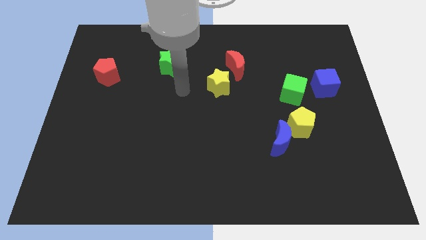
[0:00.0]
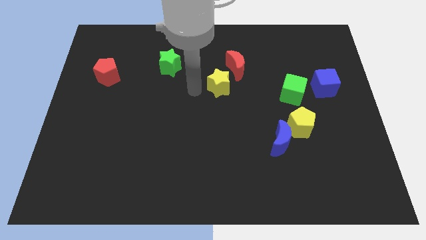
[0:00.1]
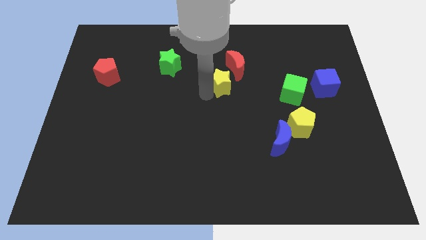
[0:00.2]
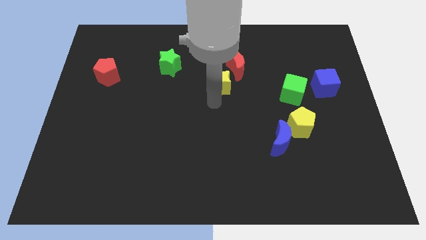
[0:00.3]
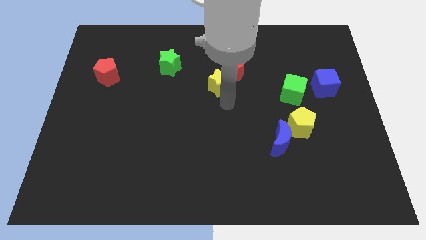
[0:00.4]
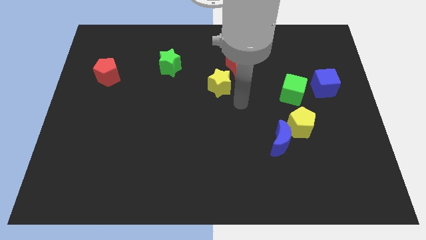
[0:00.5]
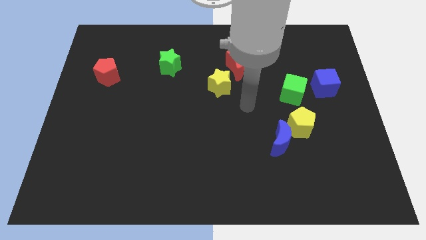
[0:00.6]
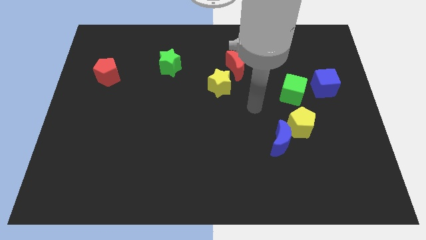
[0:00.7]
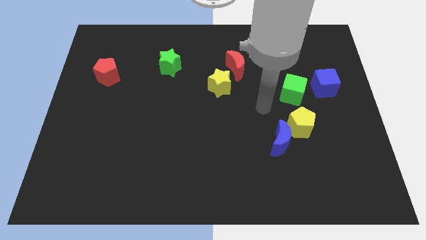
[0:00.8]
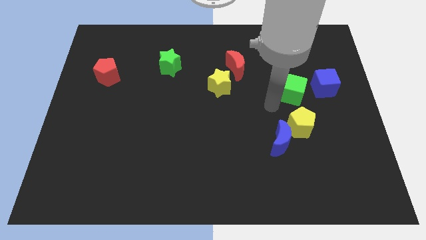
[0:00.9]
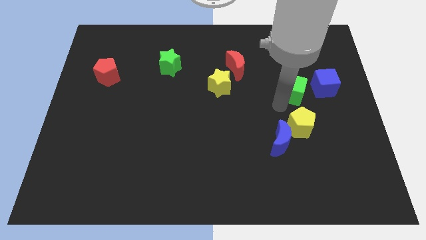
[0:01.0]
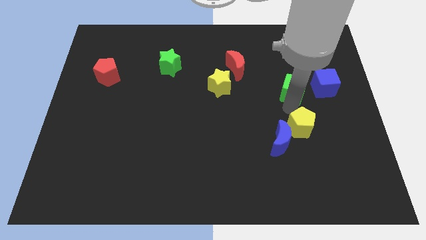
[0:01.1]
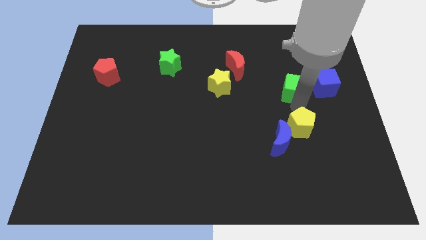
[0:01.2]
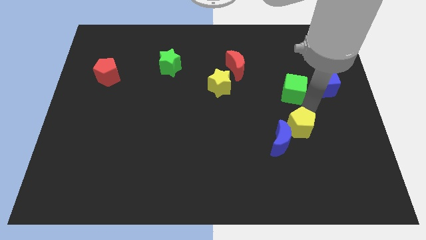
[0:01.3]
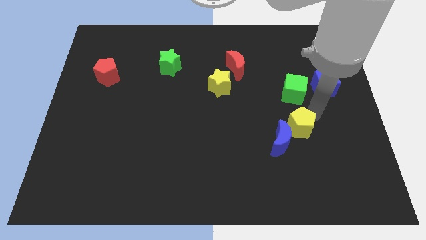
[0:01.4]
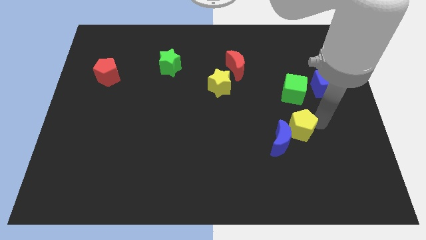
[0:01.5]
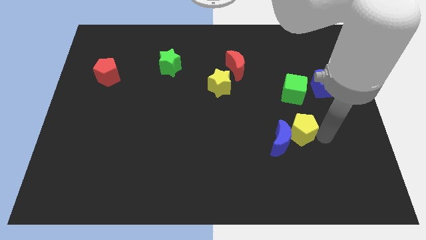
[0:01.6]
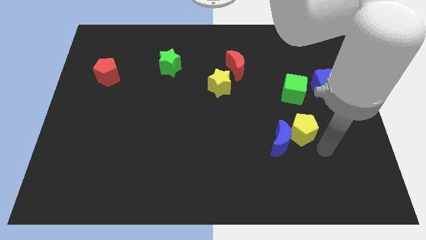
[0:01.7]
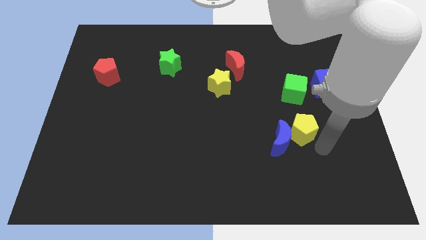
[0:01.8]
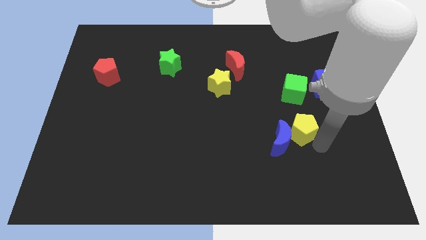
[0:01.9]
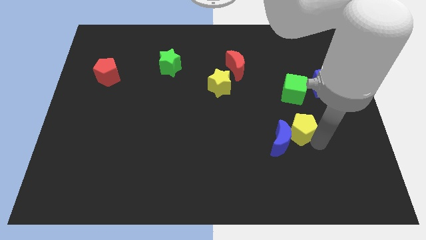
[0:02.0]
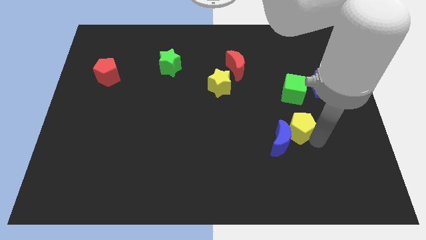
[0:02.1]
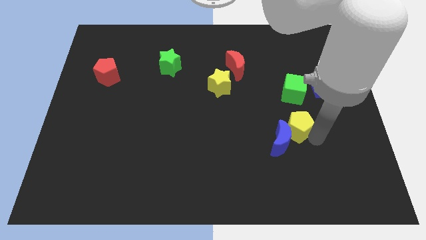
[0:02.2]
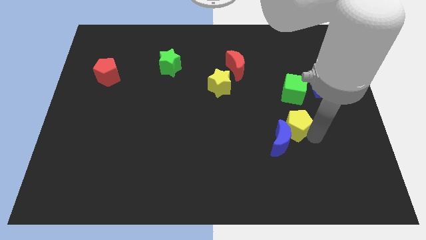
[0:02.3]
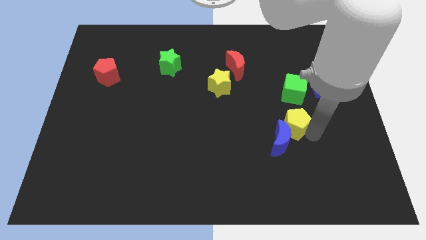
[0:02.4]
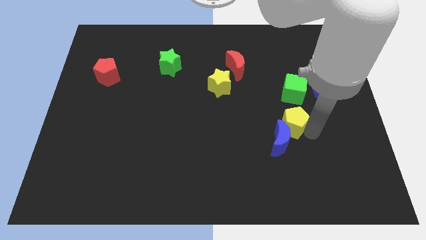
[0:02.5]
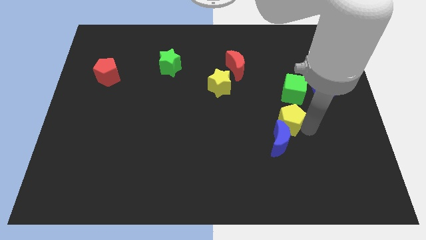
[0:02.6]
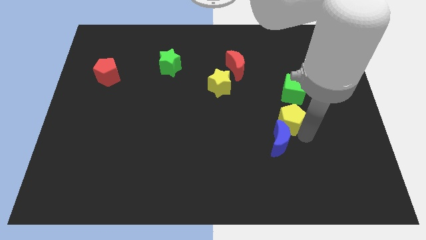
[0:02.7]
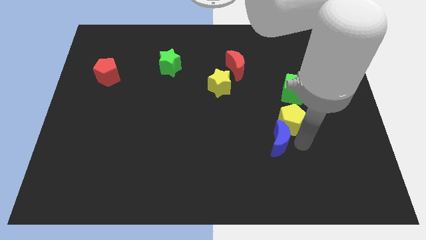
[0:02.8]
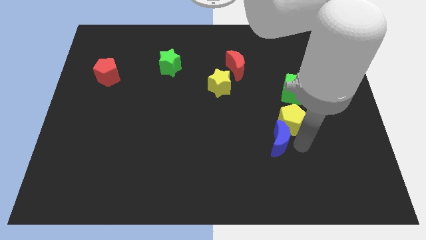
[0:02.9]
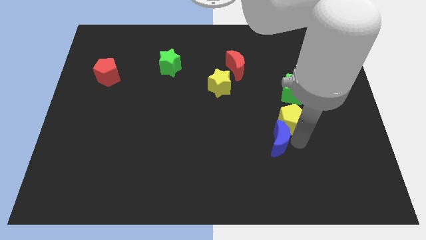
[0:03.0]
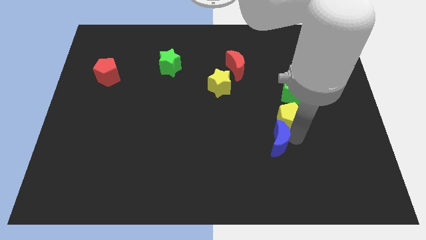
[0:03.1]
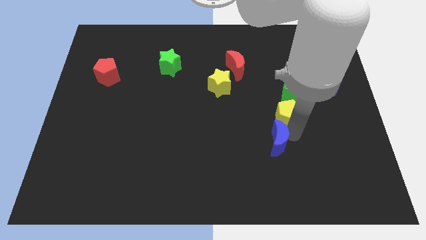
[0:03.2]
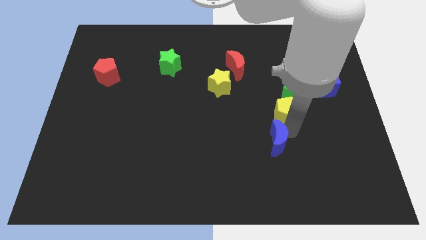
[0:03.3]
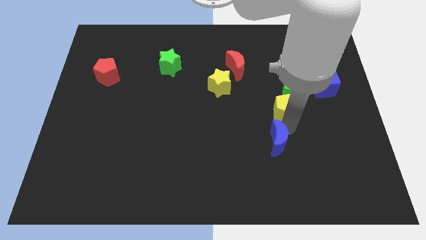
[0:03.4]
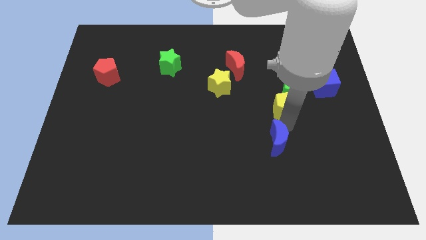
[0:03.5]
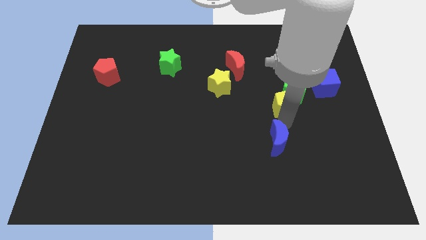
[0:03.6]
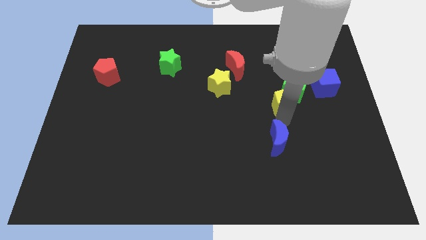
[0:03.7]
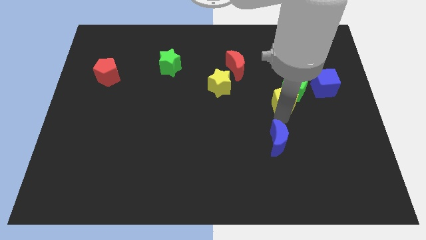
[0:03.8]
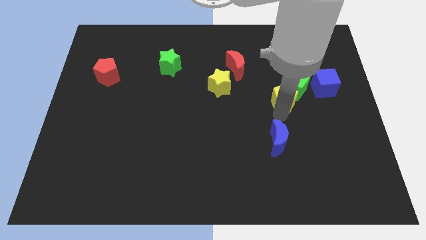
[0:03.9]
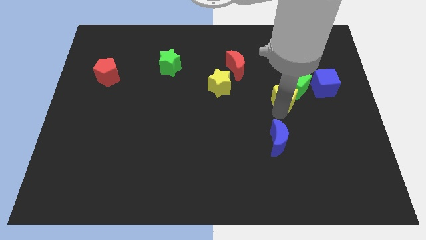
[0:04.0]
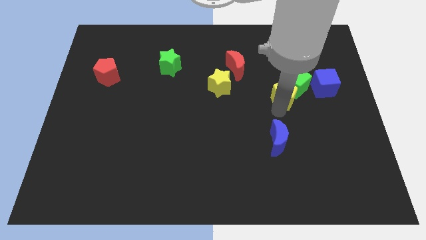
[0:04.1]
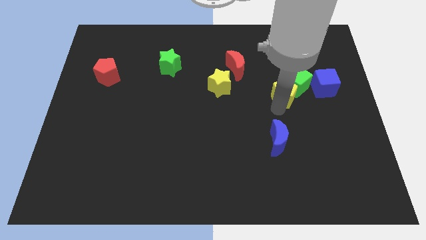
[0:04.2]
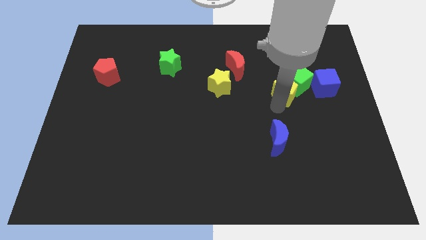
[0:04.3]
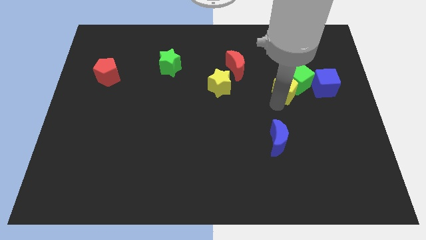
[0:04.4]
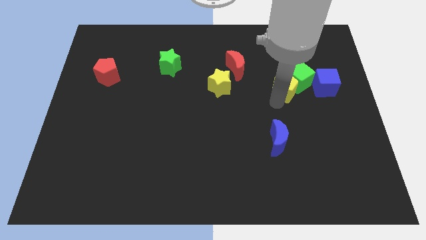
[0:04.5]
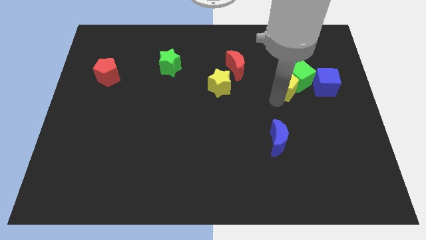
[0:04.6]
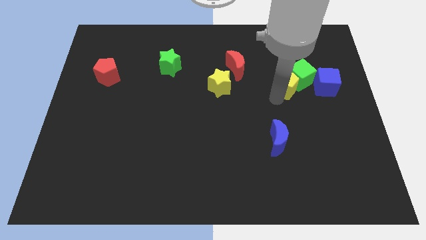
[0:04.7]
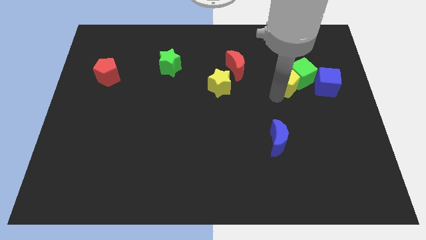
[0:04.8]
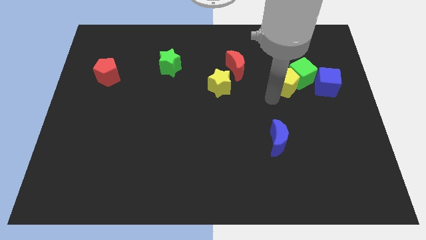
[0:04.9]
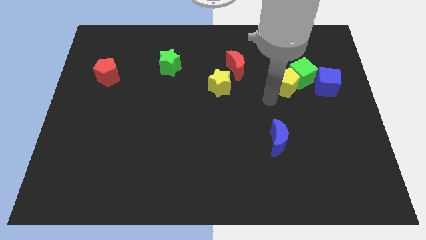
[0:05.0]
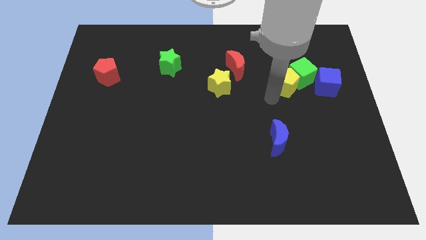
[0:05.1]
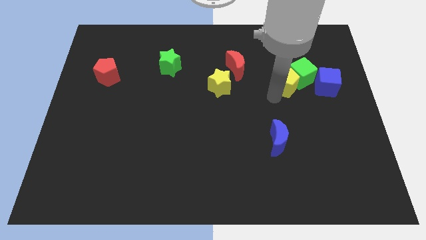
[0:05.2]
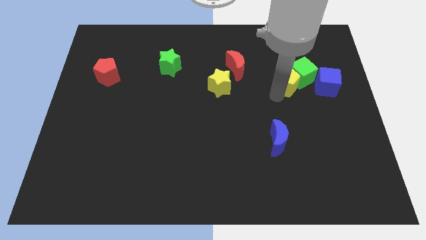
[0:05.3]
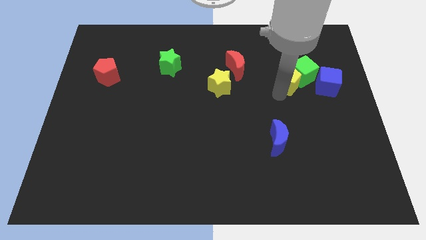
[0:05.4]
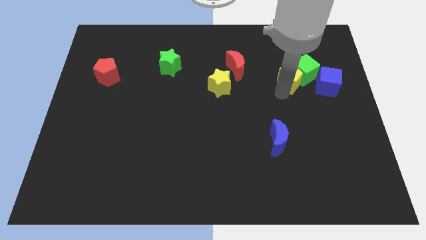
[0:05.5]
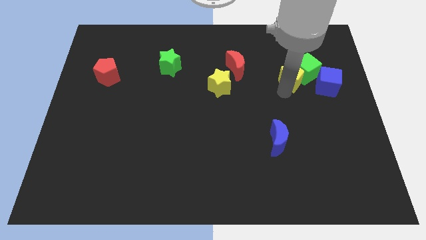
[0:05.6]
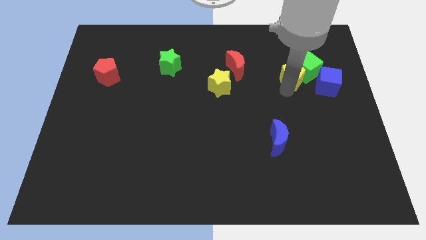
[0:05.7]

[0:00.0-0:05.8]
push the yellow pentagon diagonally up and to the left of the blue cube

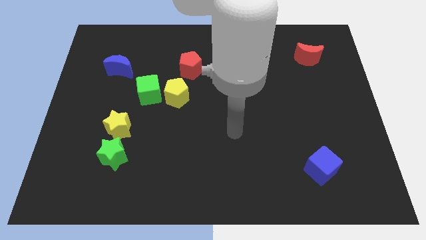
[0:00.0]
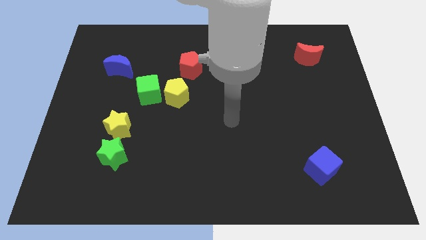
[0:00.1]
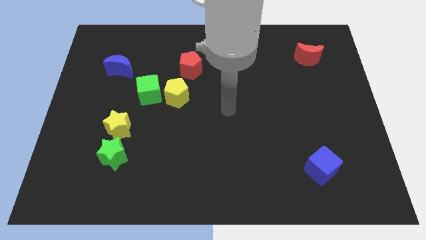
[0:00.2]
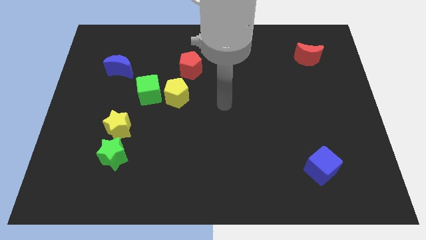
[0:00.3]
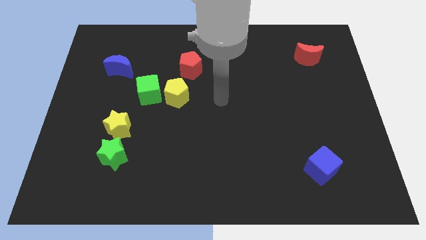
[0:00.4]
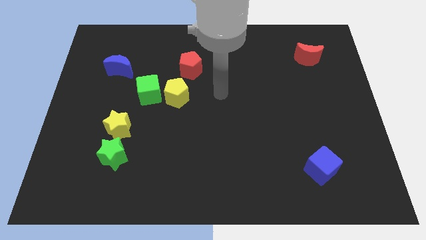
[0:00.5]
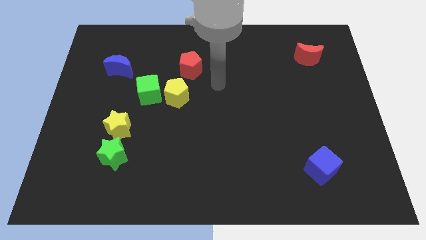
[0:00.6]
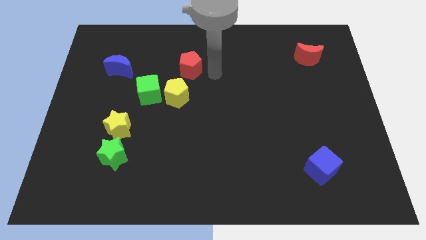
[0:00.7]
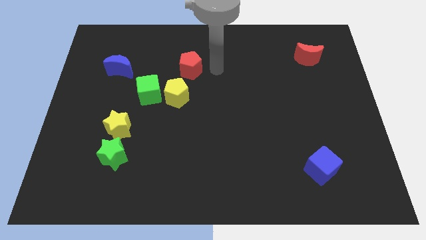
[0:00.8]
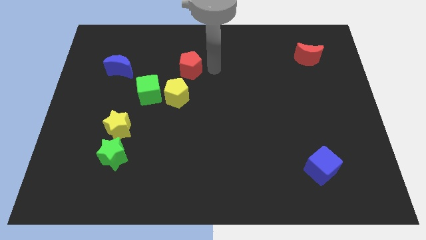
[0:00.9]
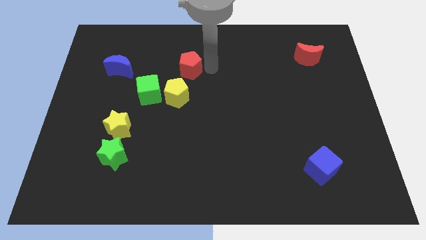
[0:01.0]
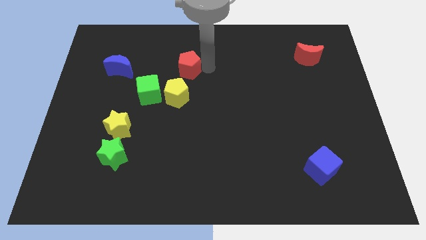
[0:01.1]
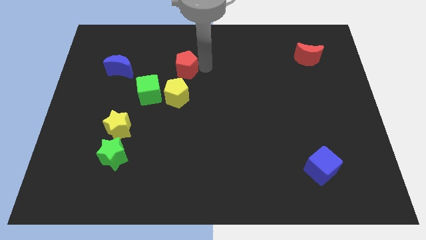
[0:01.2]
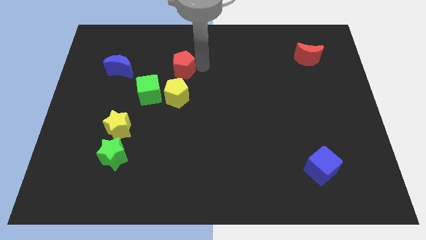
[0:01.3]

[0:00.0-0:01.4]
put the red pentagon to the right of the blue moon

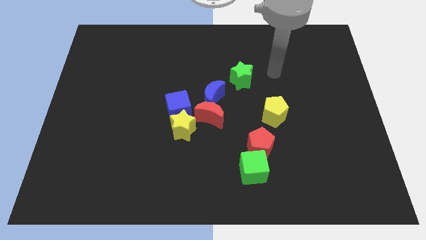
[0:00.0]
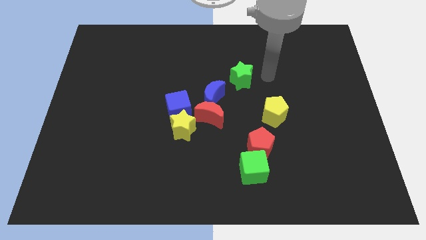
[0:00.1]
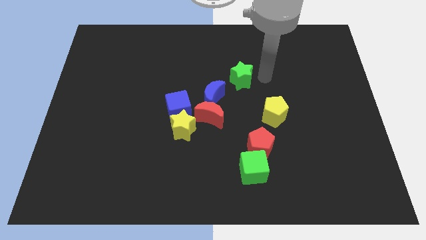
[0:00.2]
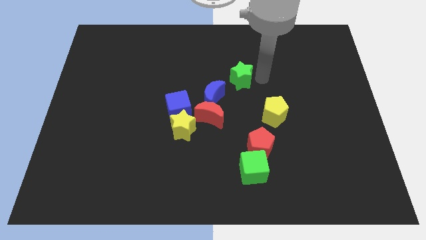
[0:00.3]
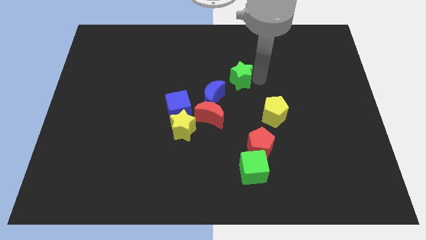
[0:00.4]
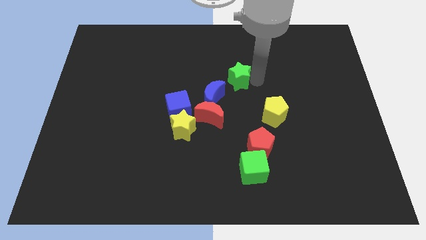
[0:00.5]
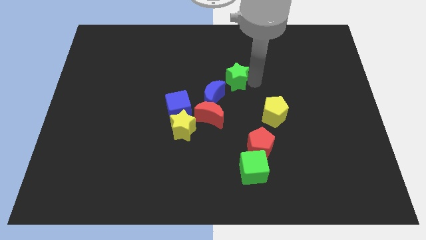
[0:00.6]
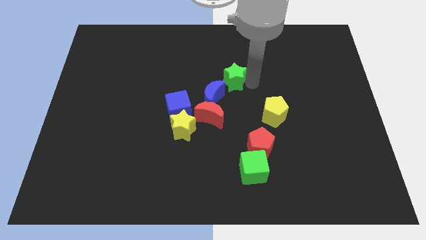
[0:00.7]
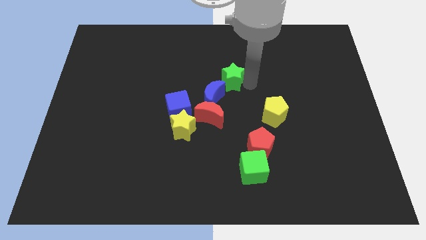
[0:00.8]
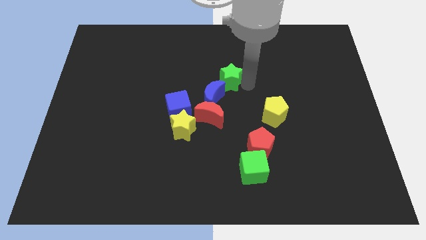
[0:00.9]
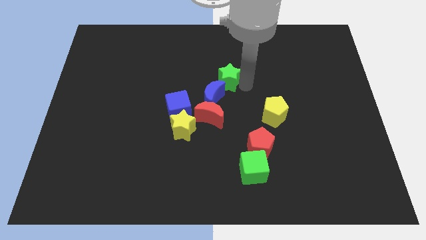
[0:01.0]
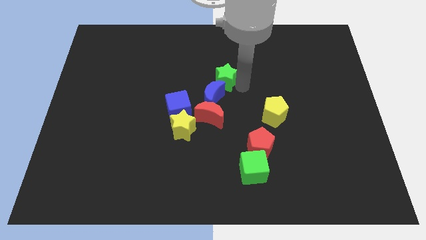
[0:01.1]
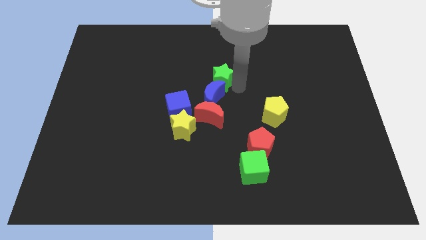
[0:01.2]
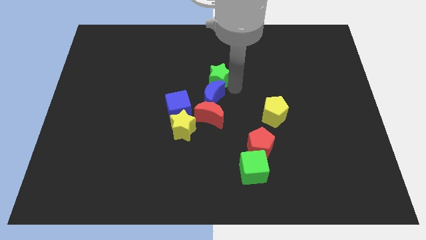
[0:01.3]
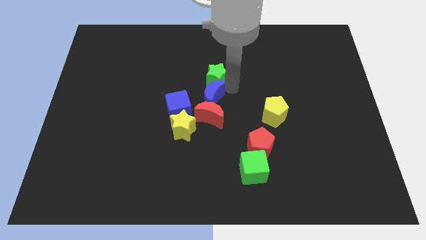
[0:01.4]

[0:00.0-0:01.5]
push the green star to the top left side of the blue moon
